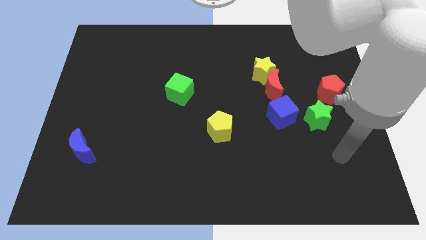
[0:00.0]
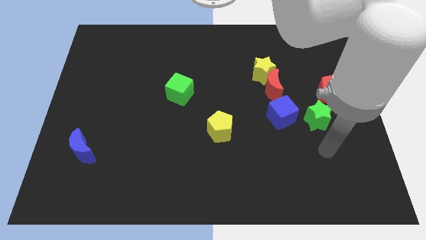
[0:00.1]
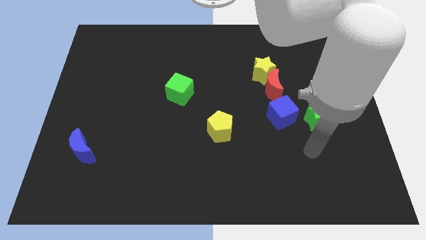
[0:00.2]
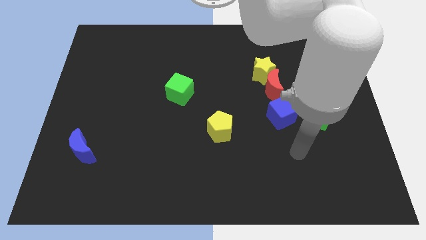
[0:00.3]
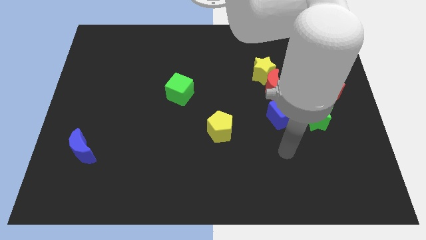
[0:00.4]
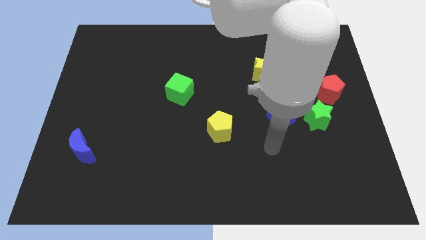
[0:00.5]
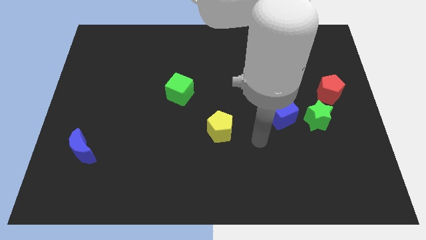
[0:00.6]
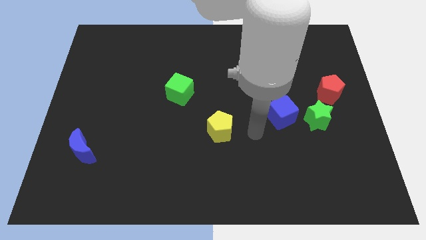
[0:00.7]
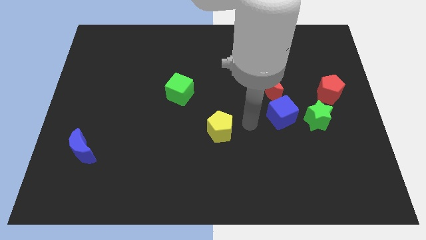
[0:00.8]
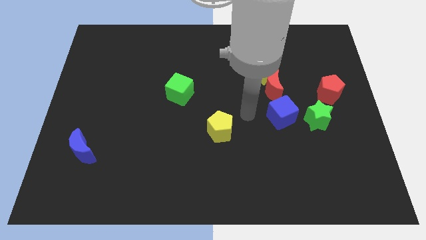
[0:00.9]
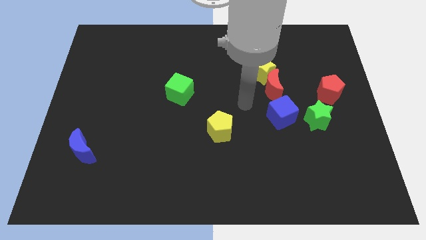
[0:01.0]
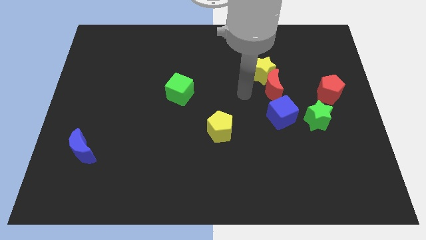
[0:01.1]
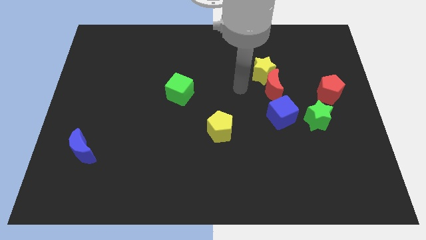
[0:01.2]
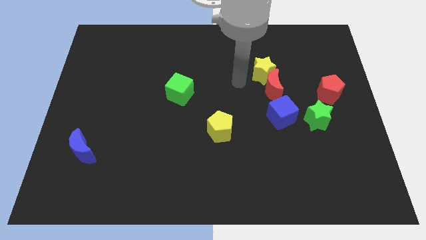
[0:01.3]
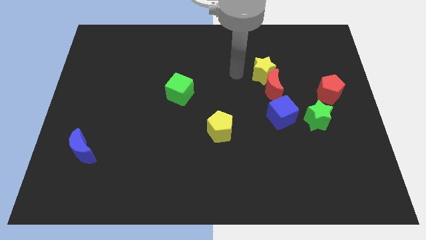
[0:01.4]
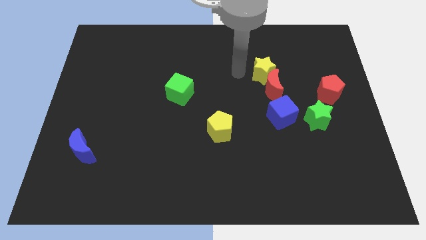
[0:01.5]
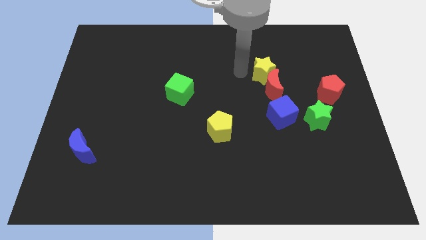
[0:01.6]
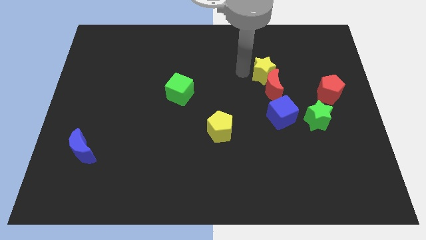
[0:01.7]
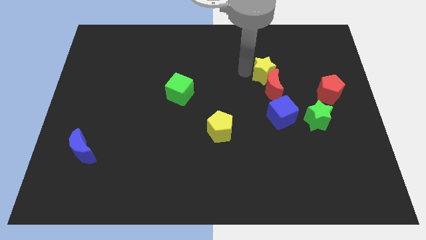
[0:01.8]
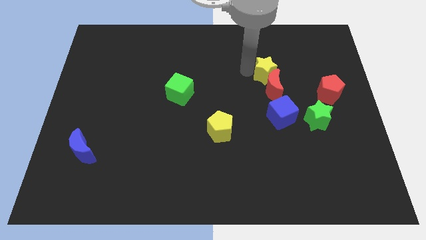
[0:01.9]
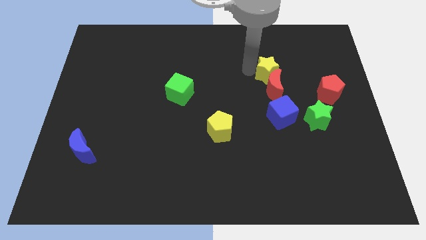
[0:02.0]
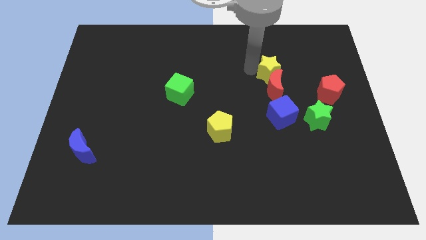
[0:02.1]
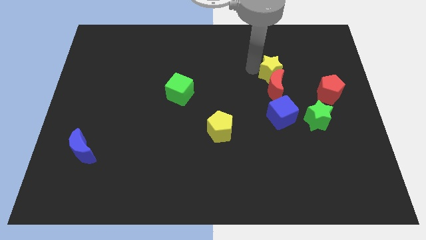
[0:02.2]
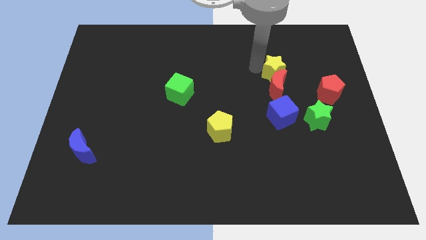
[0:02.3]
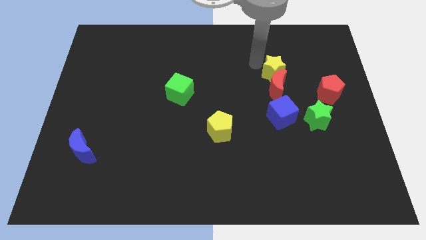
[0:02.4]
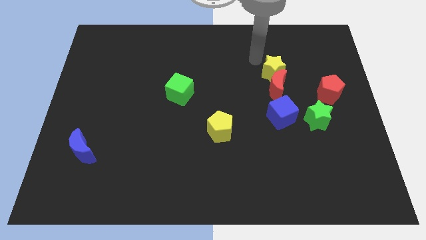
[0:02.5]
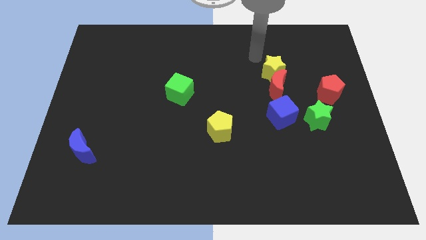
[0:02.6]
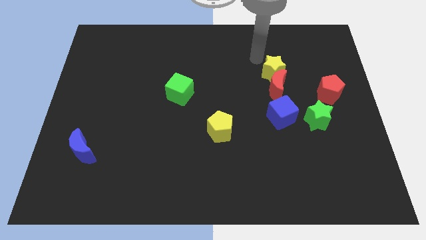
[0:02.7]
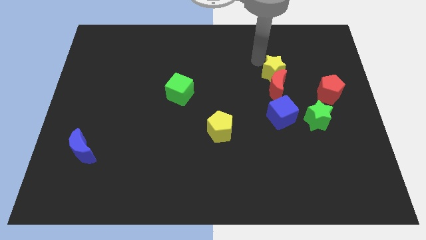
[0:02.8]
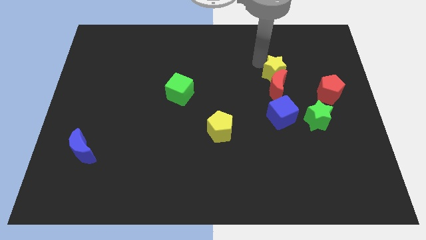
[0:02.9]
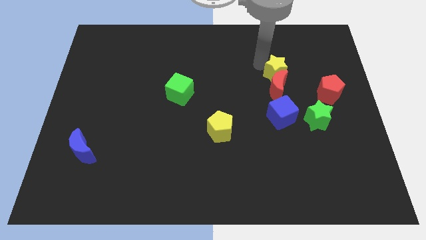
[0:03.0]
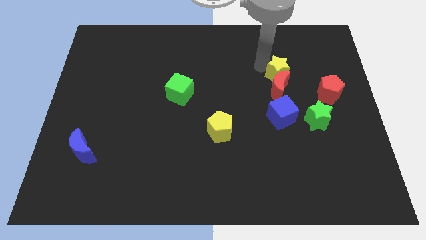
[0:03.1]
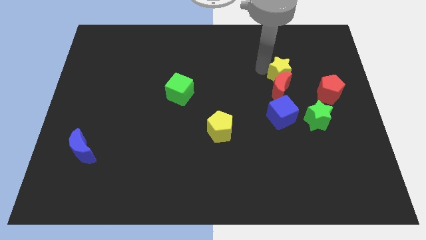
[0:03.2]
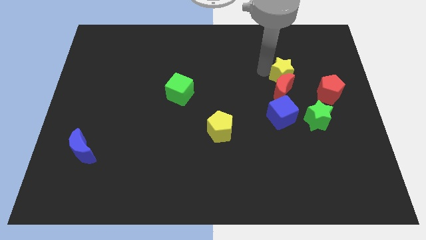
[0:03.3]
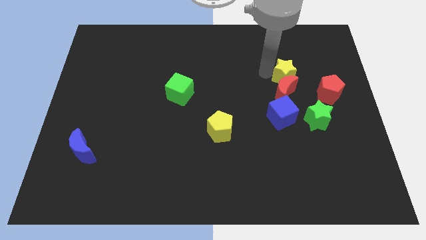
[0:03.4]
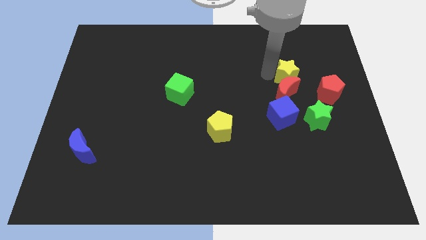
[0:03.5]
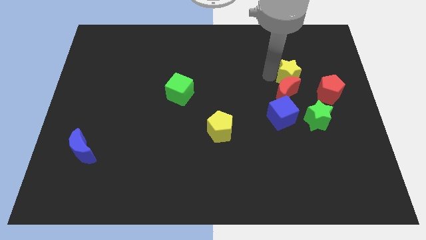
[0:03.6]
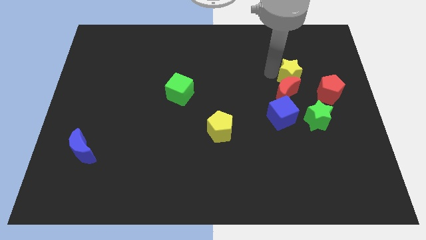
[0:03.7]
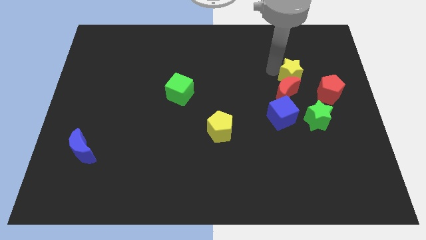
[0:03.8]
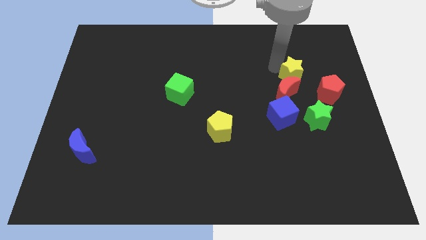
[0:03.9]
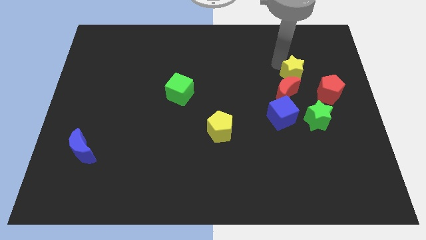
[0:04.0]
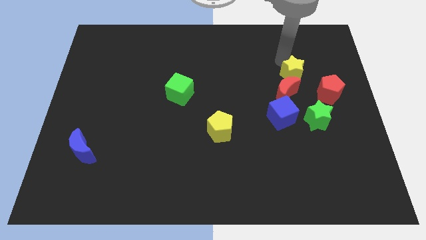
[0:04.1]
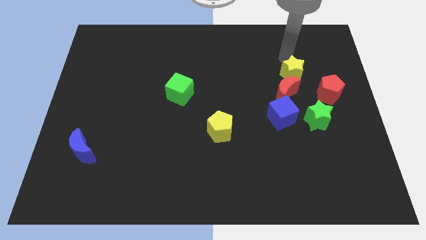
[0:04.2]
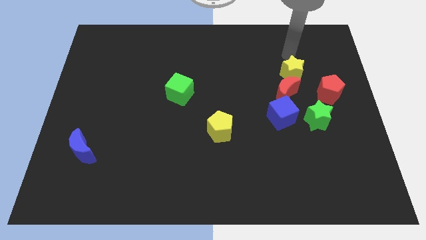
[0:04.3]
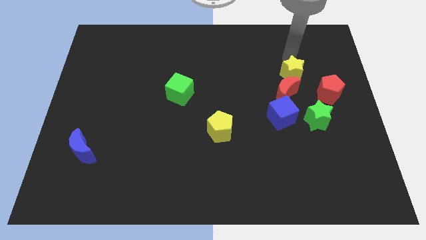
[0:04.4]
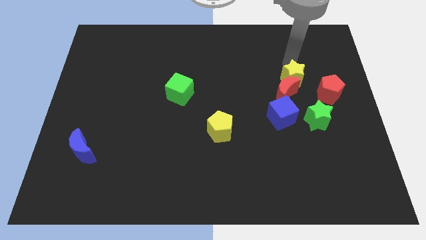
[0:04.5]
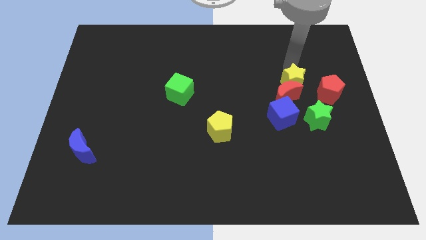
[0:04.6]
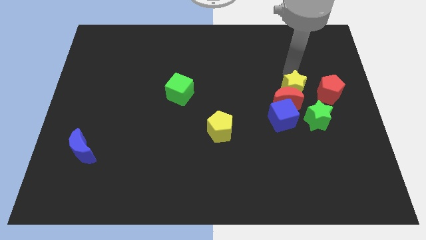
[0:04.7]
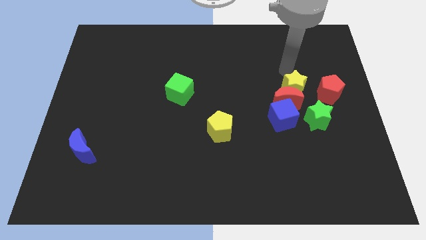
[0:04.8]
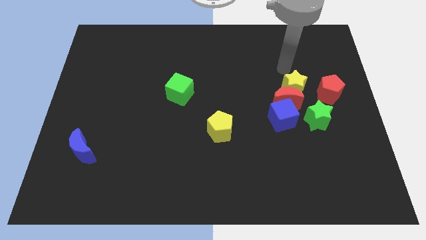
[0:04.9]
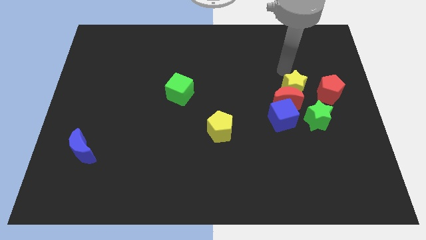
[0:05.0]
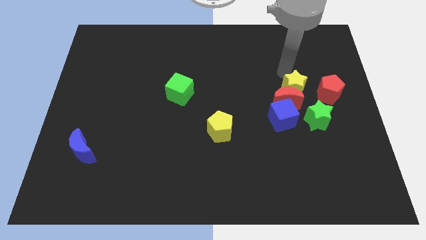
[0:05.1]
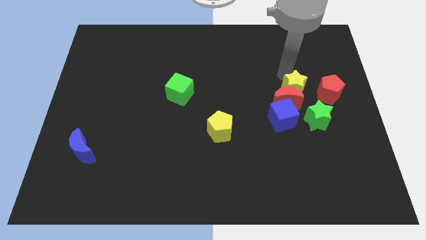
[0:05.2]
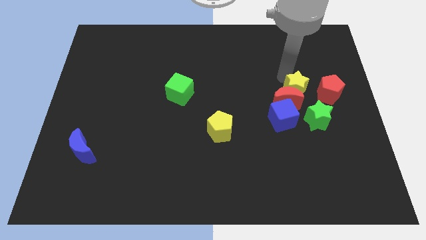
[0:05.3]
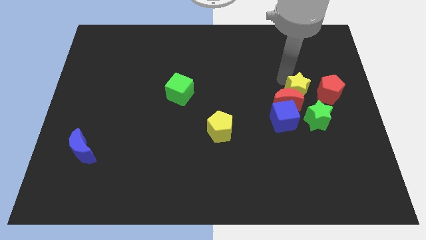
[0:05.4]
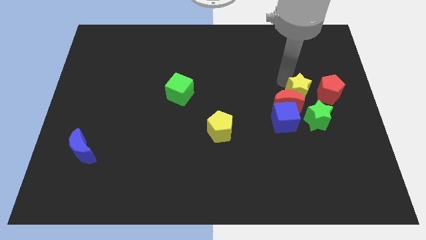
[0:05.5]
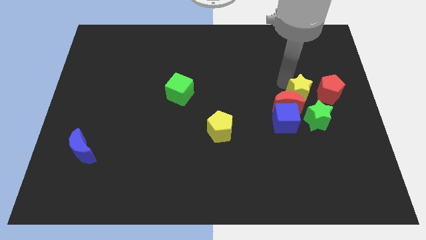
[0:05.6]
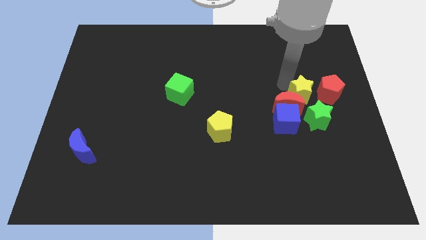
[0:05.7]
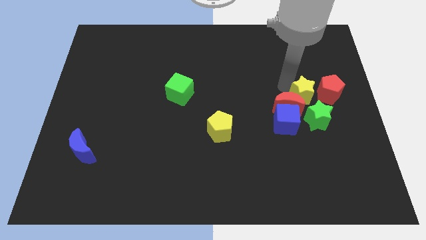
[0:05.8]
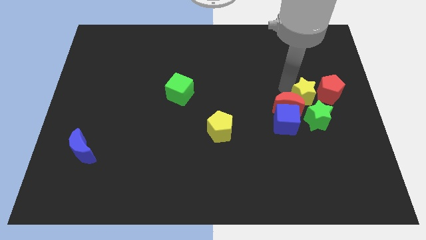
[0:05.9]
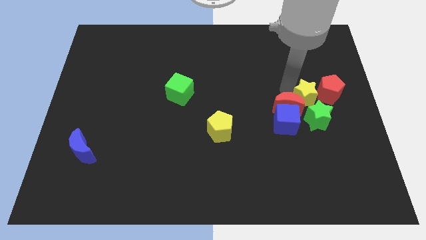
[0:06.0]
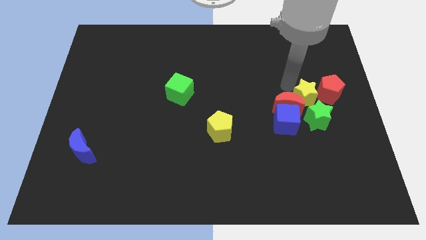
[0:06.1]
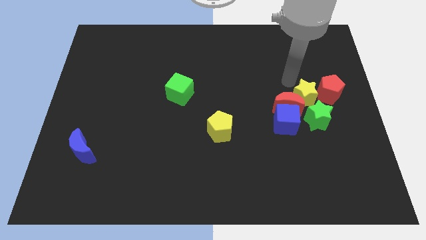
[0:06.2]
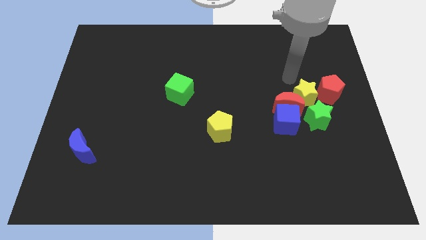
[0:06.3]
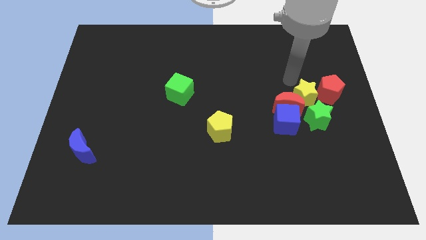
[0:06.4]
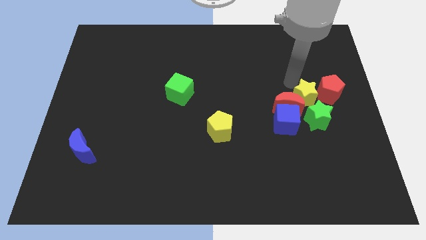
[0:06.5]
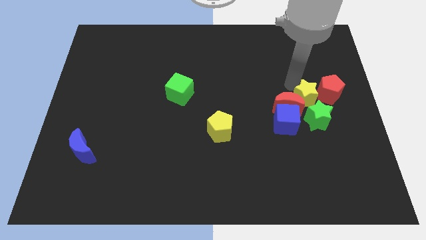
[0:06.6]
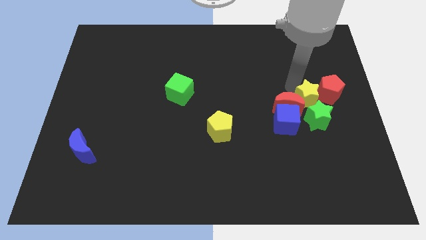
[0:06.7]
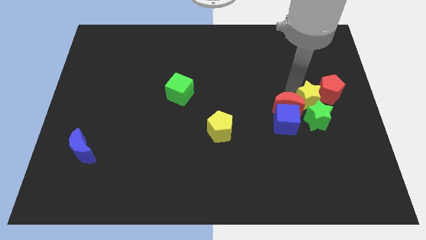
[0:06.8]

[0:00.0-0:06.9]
move the yellow star next to the green star

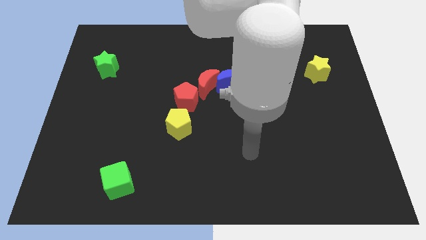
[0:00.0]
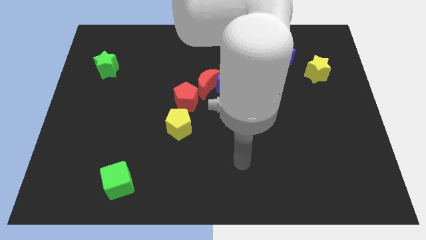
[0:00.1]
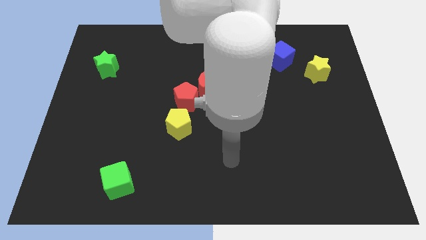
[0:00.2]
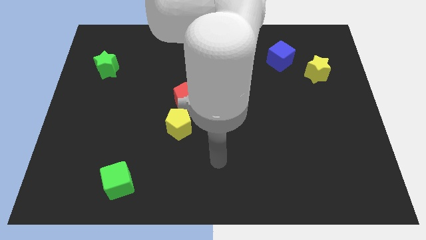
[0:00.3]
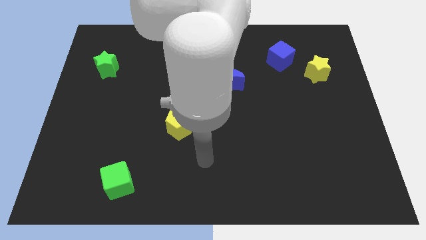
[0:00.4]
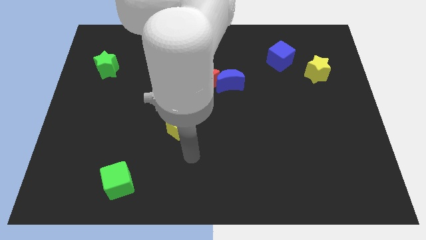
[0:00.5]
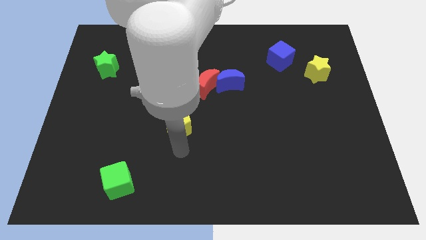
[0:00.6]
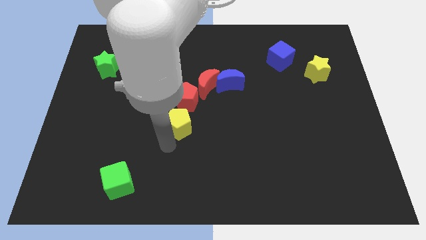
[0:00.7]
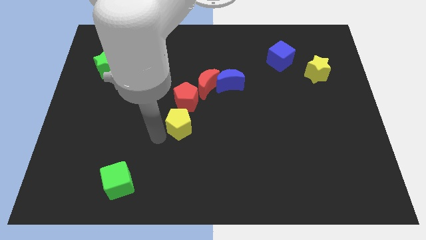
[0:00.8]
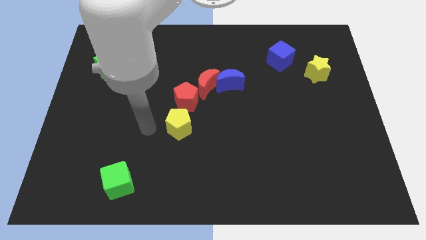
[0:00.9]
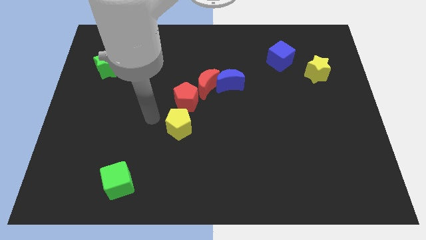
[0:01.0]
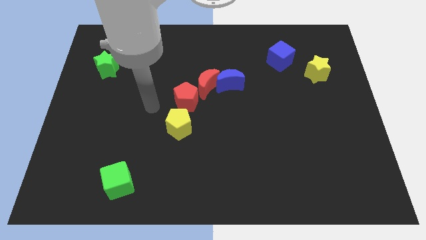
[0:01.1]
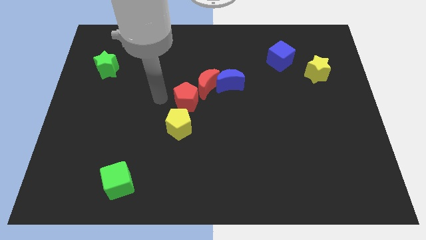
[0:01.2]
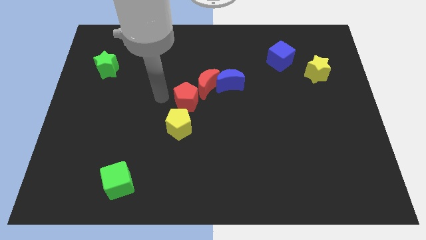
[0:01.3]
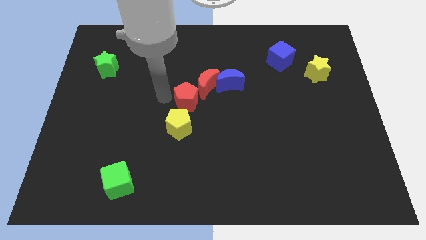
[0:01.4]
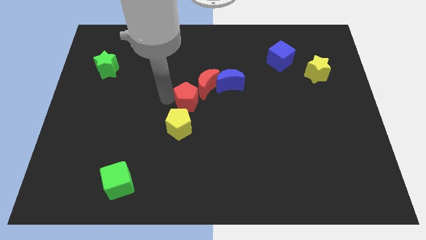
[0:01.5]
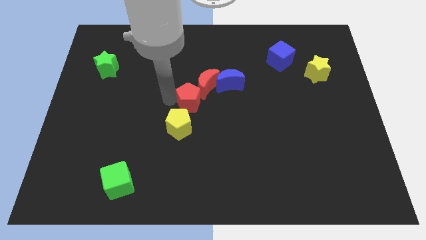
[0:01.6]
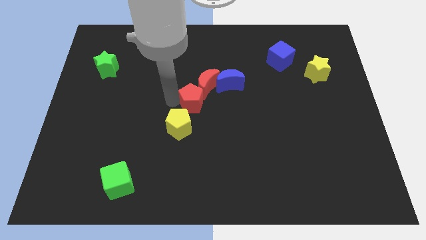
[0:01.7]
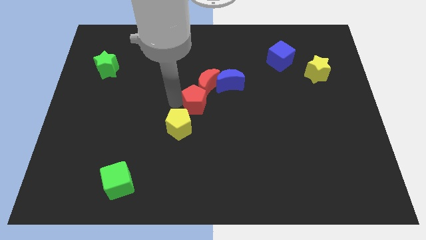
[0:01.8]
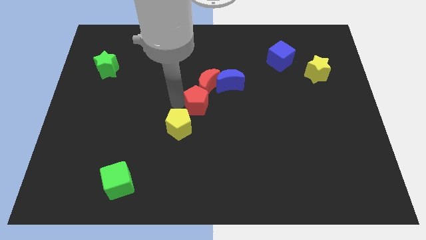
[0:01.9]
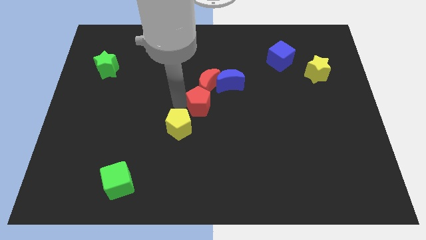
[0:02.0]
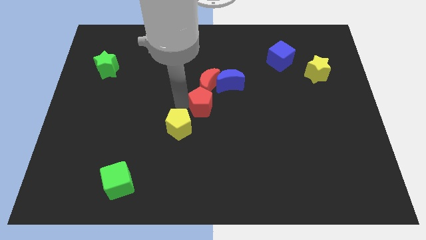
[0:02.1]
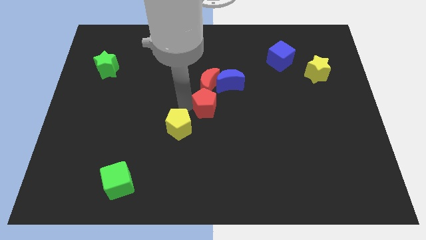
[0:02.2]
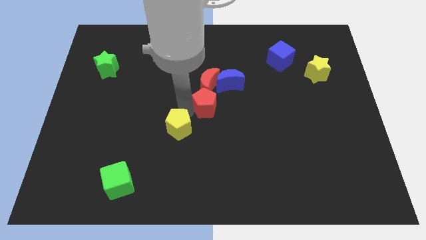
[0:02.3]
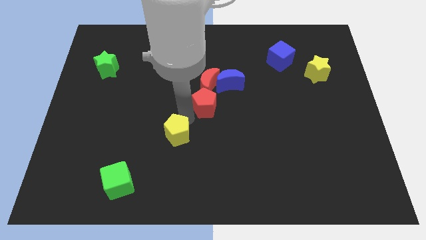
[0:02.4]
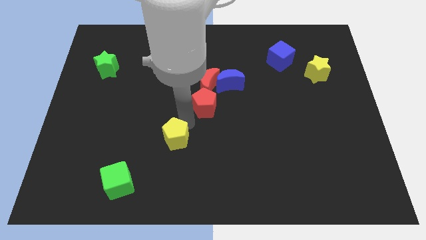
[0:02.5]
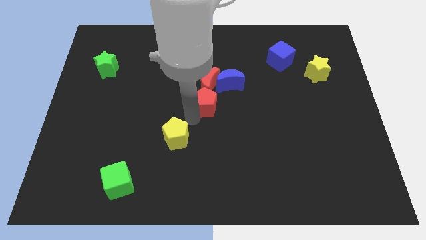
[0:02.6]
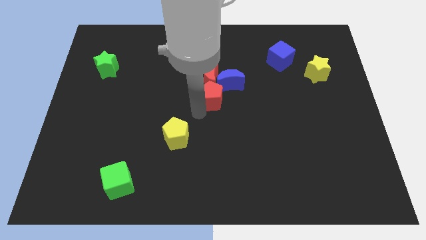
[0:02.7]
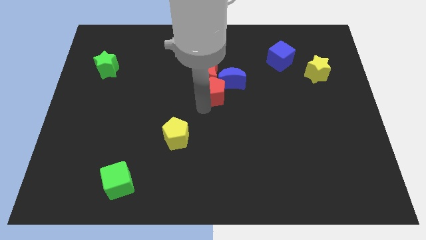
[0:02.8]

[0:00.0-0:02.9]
put the red pentagon towards the blue moon
